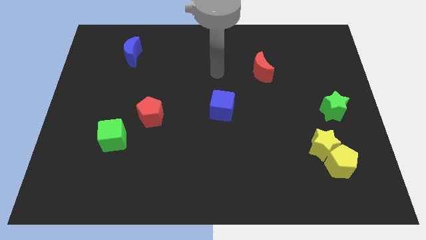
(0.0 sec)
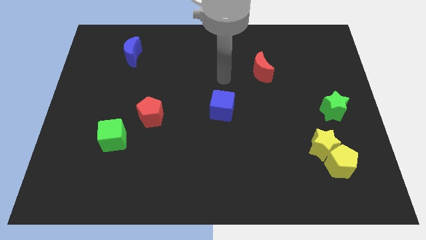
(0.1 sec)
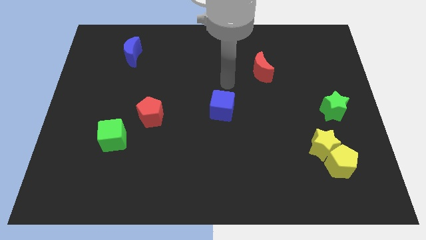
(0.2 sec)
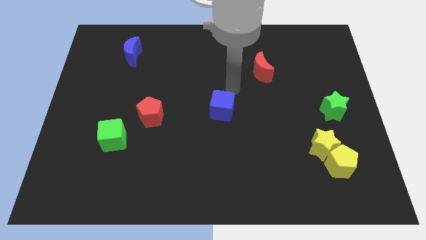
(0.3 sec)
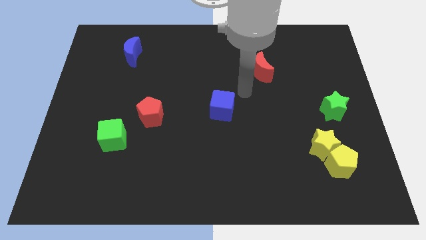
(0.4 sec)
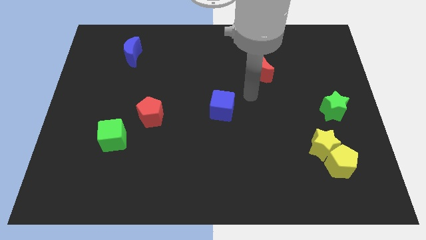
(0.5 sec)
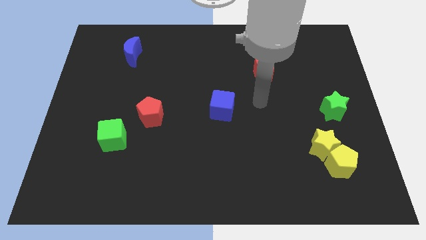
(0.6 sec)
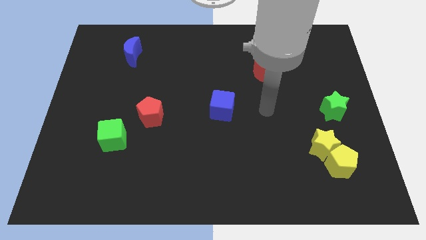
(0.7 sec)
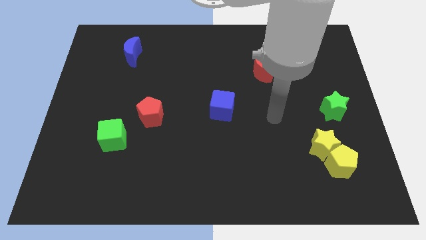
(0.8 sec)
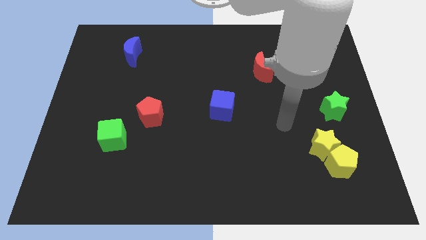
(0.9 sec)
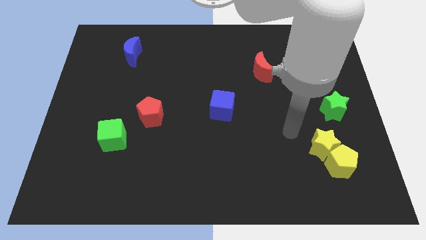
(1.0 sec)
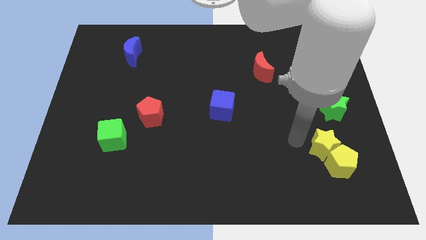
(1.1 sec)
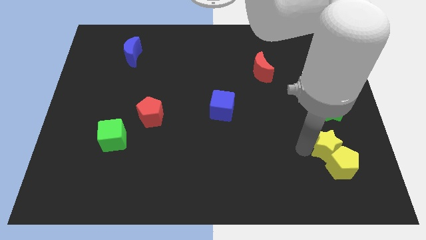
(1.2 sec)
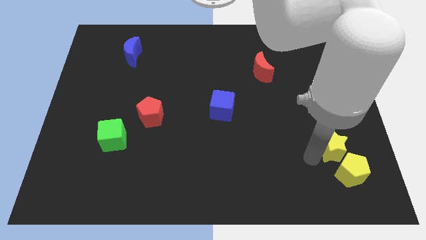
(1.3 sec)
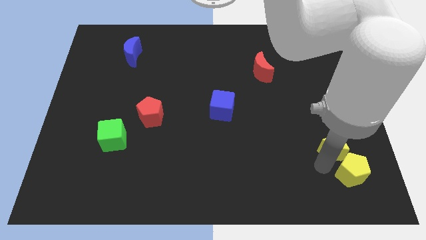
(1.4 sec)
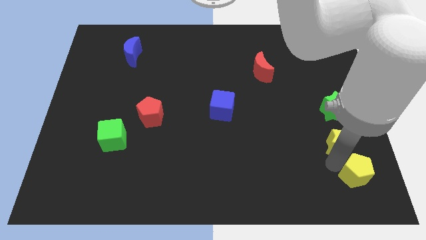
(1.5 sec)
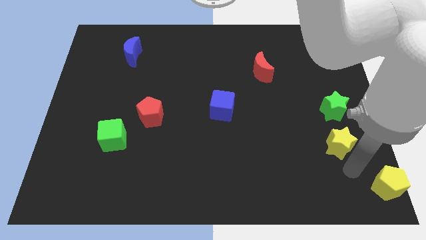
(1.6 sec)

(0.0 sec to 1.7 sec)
pull the yellow star apart from the yellow pentagon

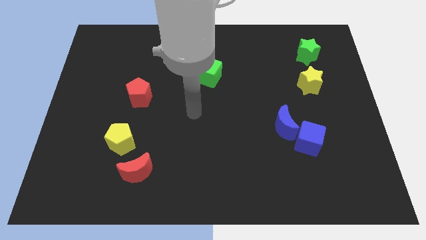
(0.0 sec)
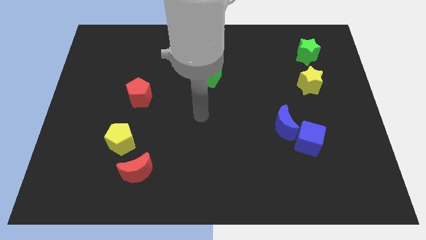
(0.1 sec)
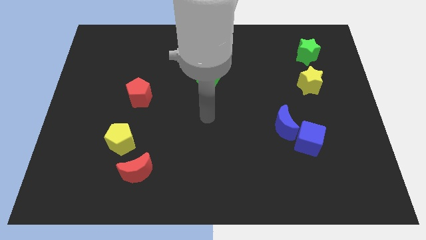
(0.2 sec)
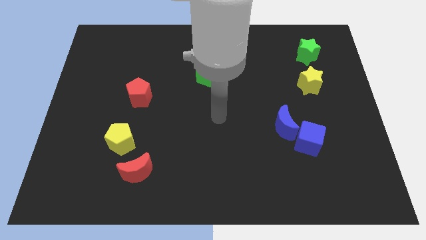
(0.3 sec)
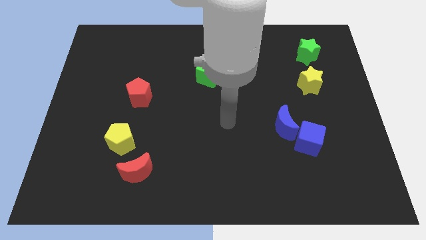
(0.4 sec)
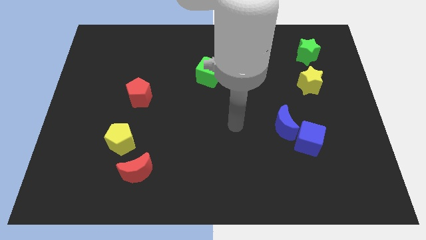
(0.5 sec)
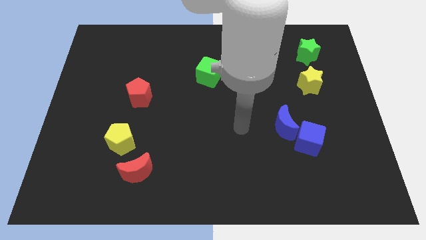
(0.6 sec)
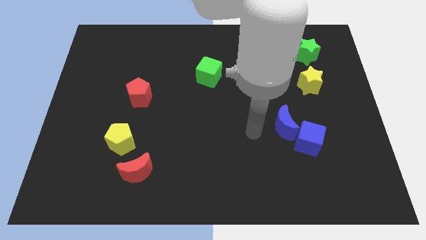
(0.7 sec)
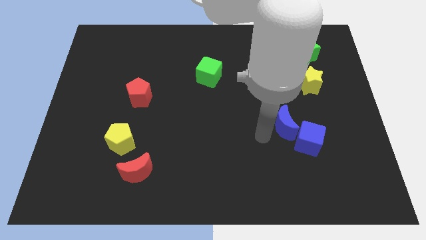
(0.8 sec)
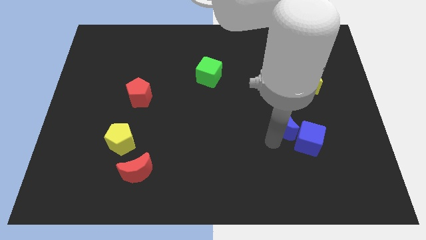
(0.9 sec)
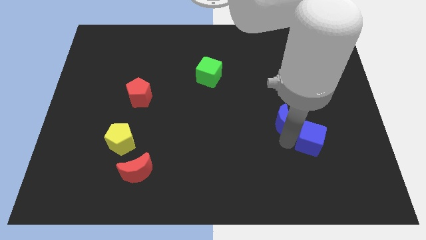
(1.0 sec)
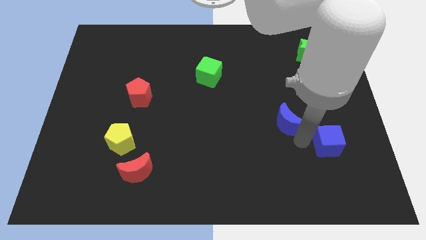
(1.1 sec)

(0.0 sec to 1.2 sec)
separate the blue moon from the blue cube

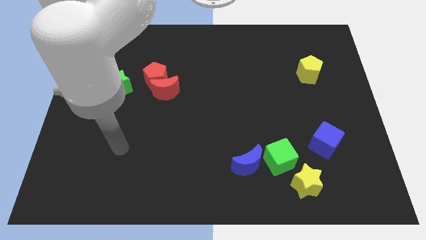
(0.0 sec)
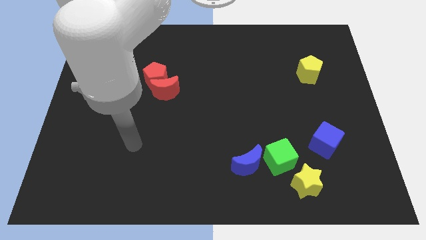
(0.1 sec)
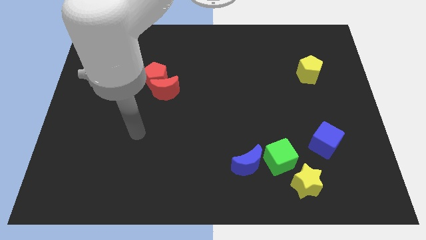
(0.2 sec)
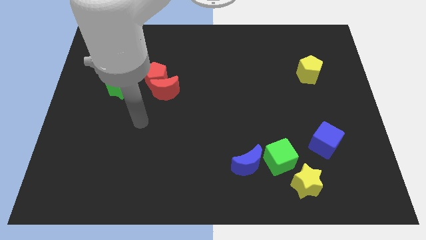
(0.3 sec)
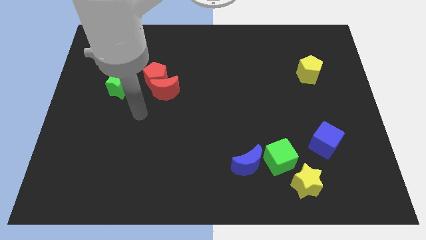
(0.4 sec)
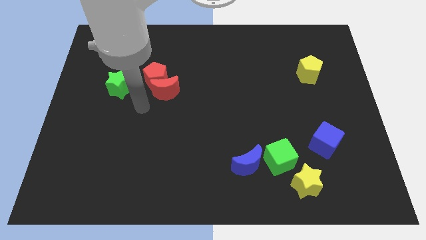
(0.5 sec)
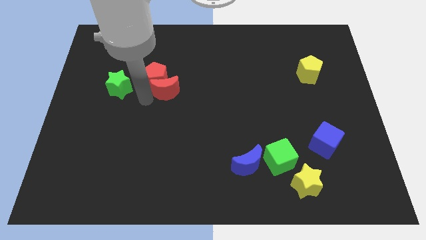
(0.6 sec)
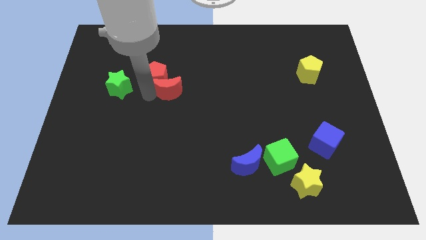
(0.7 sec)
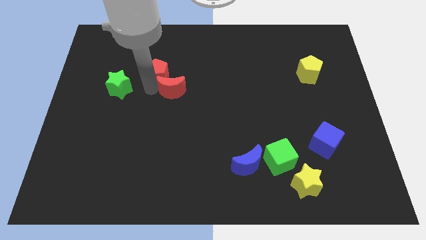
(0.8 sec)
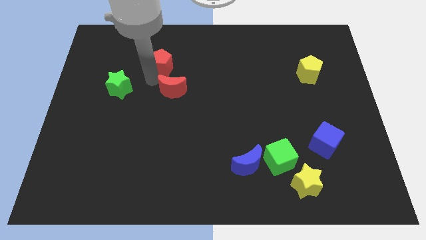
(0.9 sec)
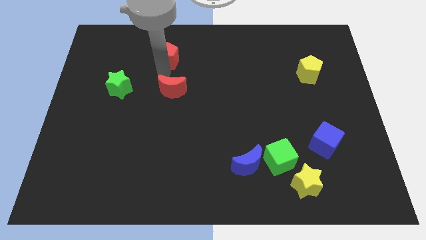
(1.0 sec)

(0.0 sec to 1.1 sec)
separate the red moon from the red pentagon

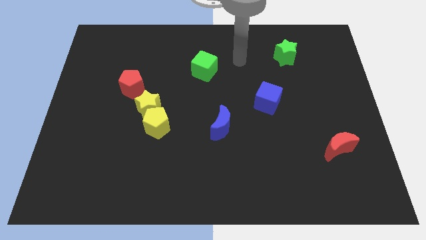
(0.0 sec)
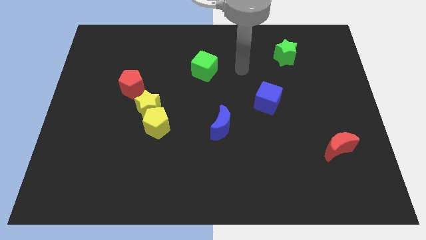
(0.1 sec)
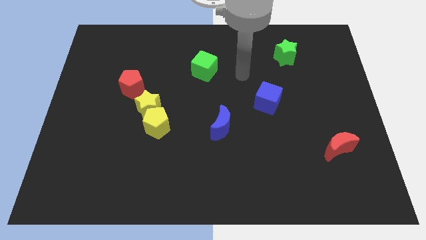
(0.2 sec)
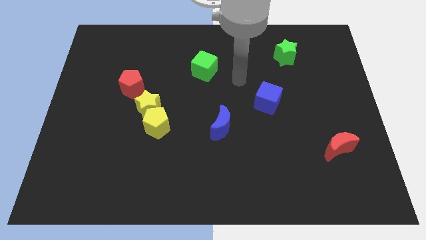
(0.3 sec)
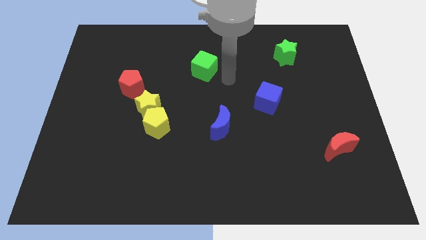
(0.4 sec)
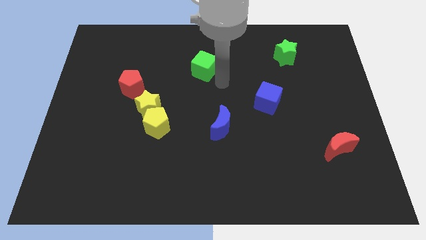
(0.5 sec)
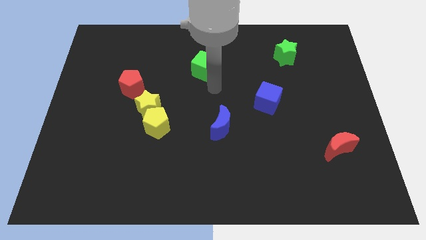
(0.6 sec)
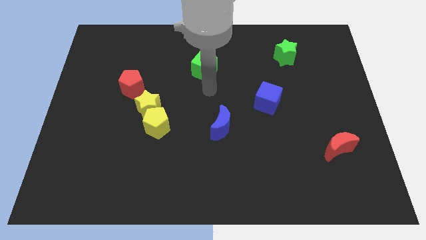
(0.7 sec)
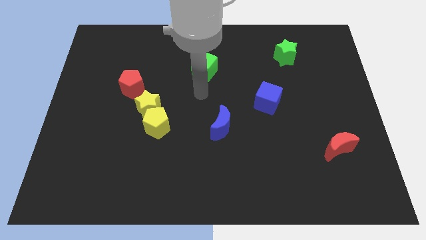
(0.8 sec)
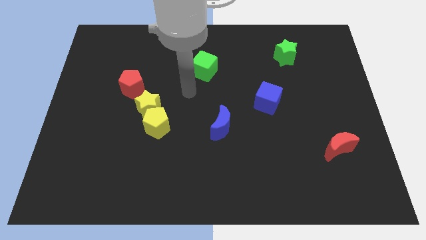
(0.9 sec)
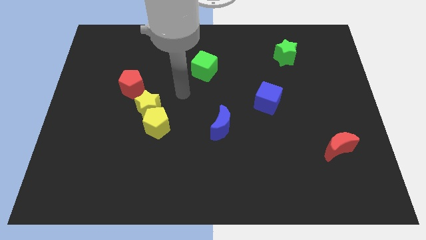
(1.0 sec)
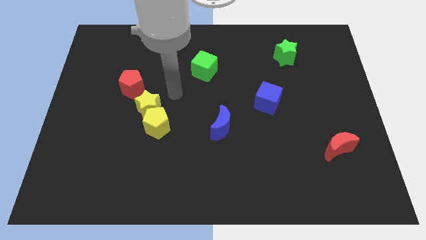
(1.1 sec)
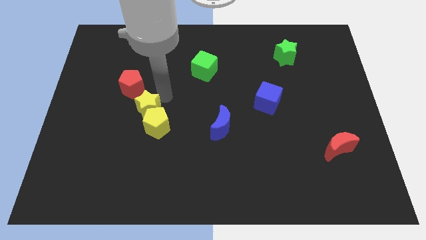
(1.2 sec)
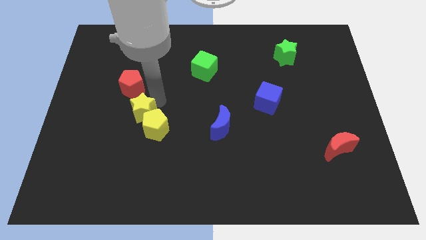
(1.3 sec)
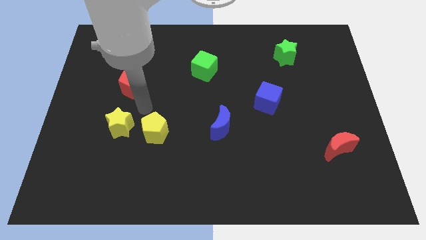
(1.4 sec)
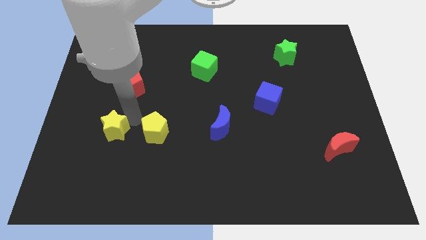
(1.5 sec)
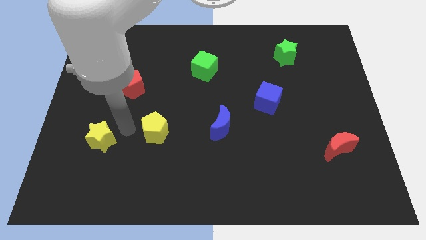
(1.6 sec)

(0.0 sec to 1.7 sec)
move the yellow pentagon away from the yellow star

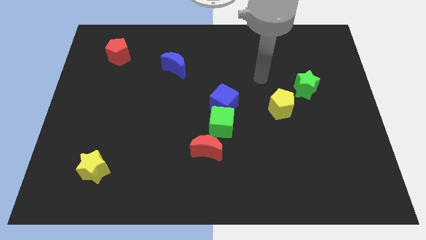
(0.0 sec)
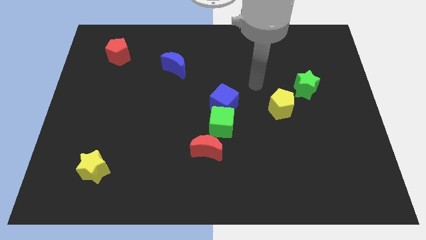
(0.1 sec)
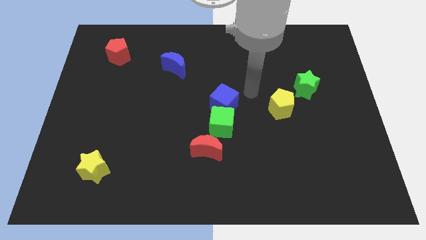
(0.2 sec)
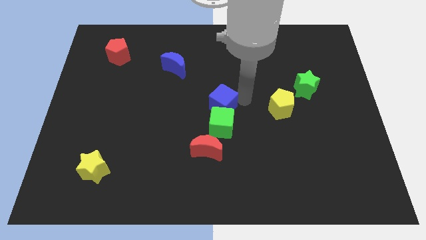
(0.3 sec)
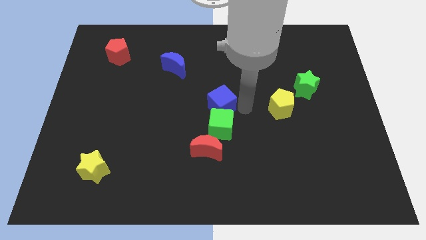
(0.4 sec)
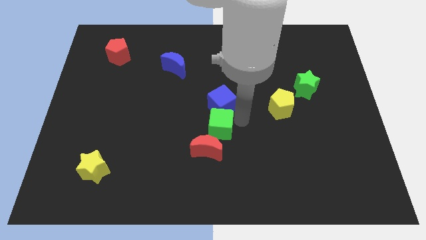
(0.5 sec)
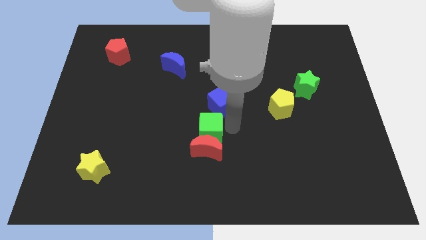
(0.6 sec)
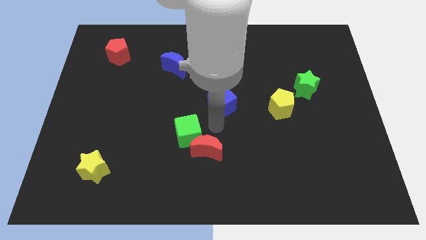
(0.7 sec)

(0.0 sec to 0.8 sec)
move the blue cube away from the green cube

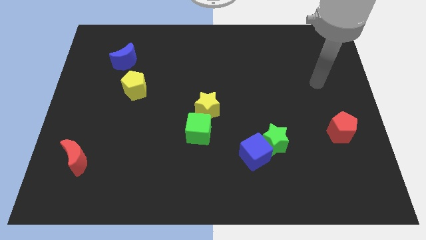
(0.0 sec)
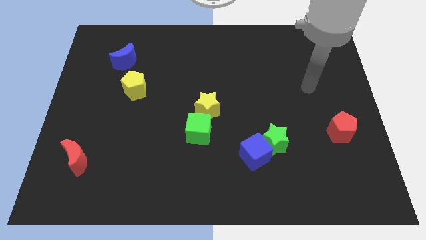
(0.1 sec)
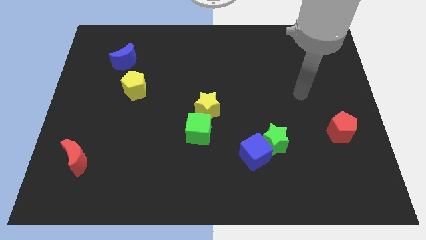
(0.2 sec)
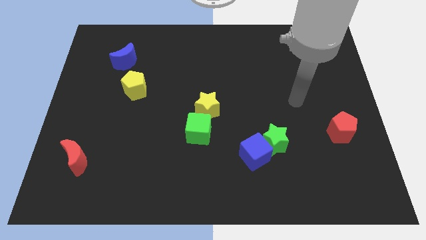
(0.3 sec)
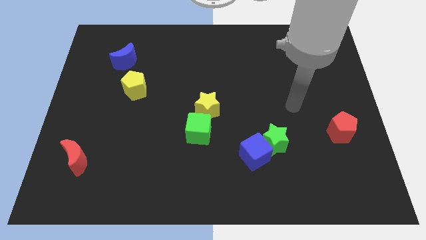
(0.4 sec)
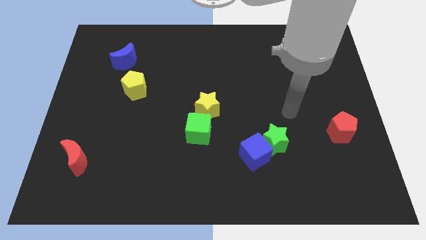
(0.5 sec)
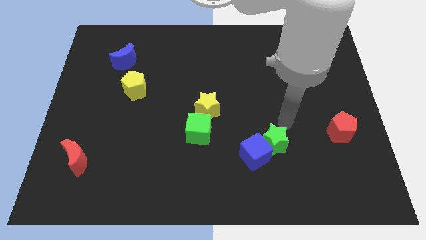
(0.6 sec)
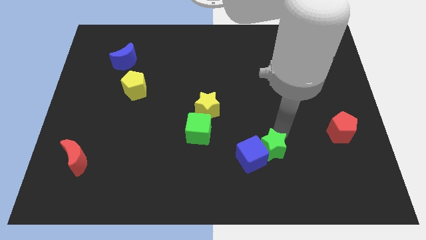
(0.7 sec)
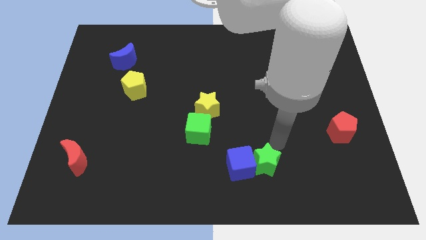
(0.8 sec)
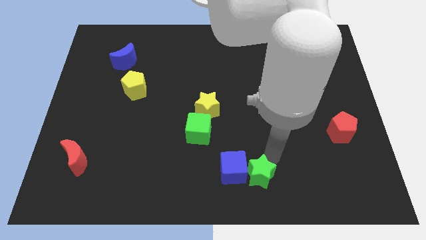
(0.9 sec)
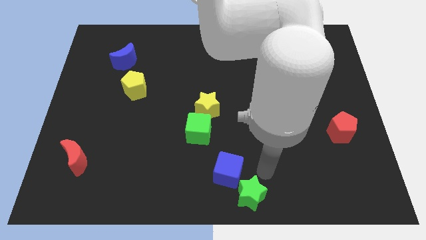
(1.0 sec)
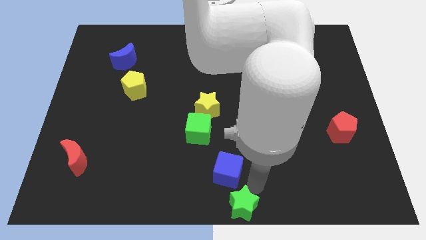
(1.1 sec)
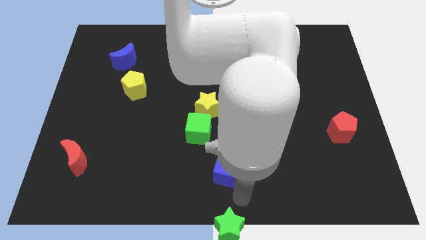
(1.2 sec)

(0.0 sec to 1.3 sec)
separate the blue cube from the green star

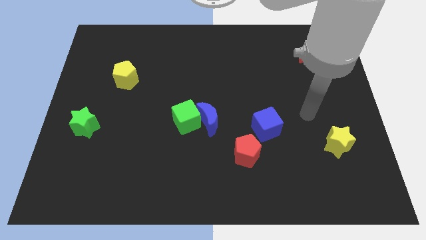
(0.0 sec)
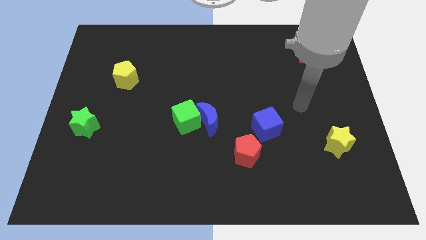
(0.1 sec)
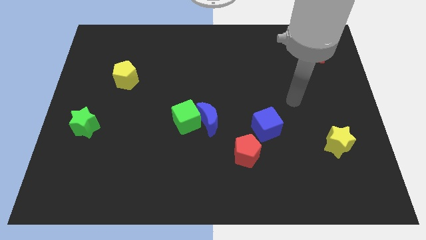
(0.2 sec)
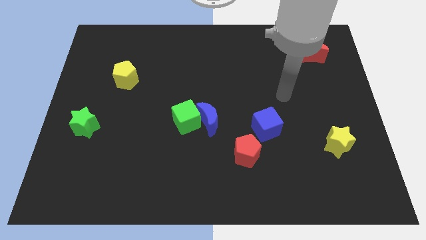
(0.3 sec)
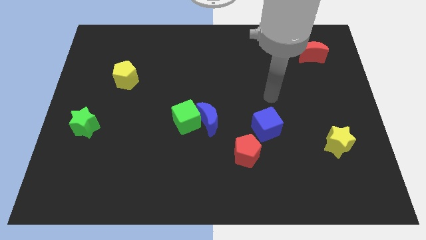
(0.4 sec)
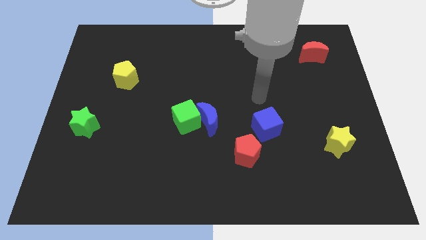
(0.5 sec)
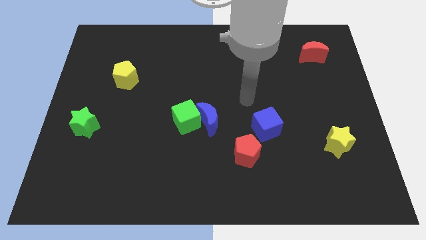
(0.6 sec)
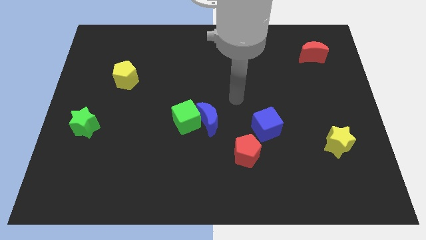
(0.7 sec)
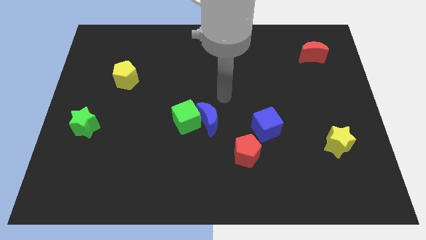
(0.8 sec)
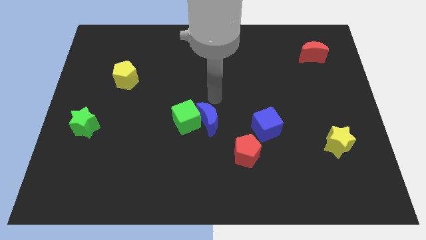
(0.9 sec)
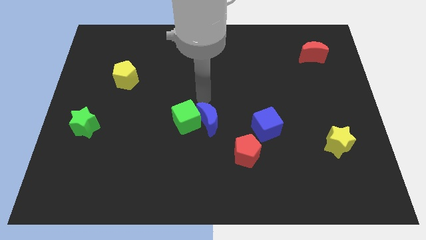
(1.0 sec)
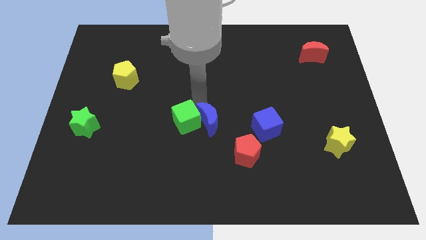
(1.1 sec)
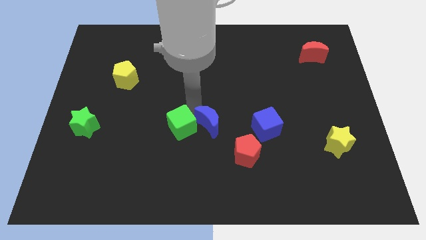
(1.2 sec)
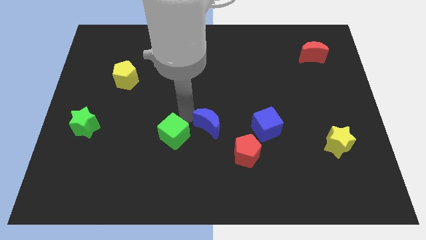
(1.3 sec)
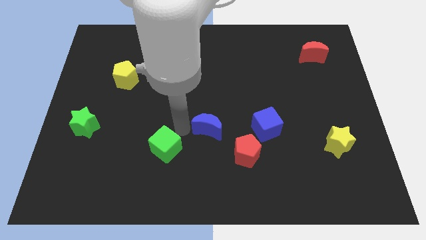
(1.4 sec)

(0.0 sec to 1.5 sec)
move the blue moon away from the green cube
